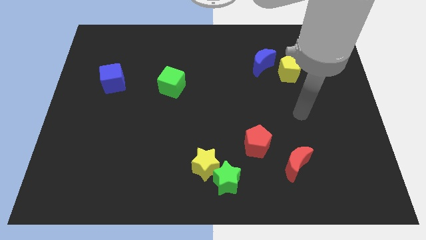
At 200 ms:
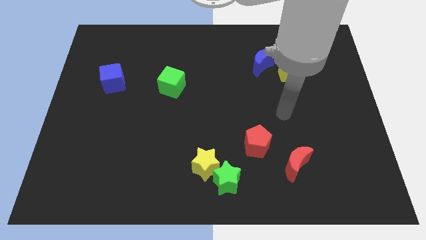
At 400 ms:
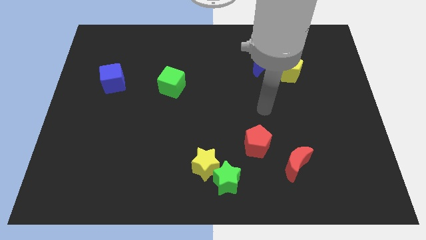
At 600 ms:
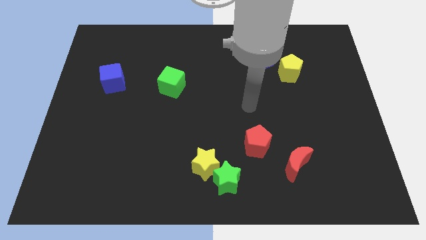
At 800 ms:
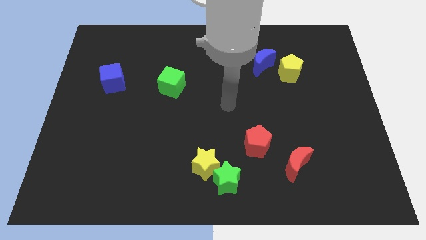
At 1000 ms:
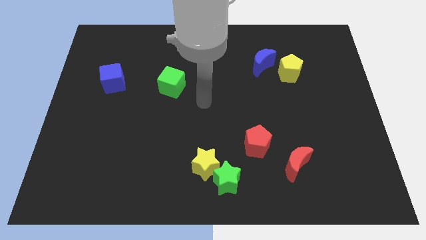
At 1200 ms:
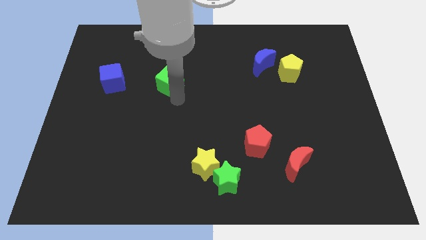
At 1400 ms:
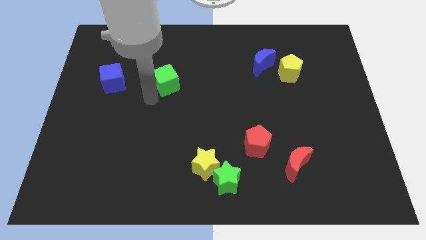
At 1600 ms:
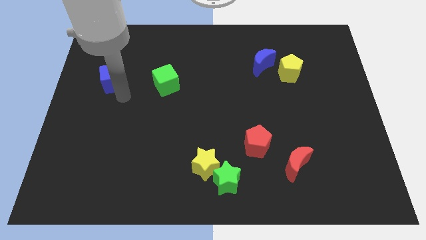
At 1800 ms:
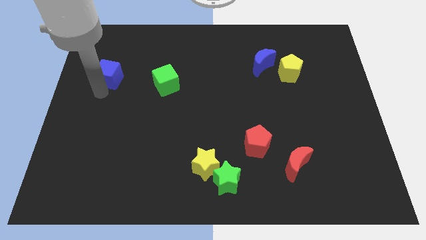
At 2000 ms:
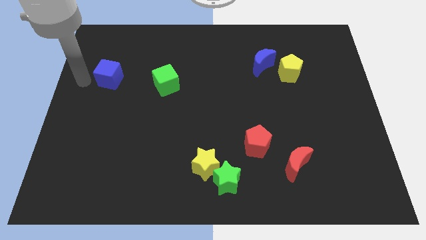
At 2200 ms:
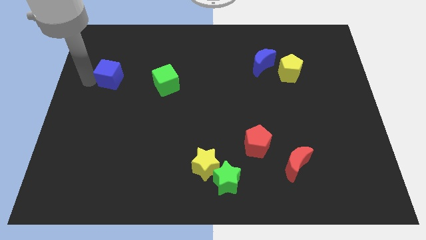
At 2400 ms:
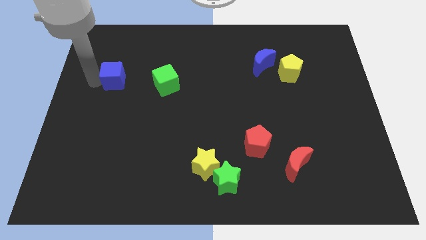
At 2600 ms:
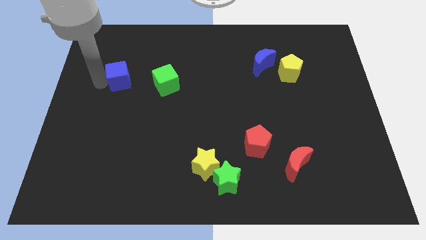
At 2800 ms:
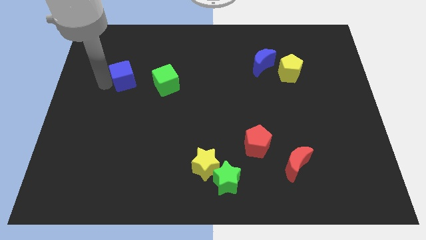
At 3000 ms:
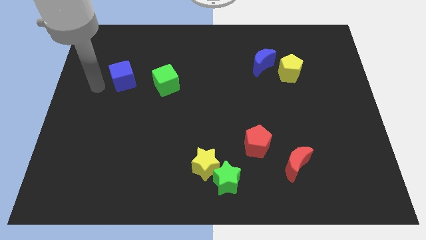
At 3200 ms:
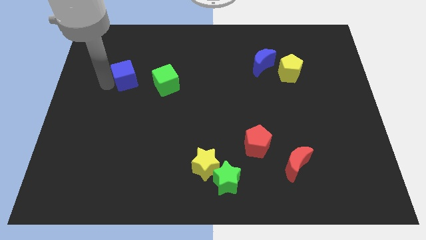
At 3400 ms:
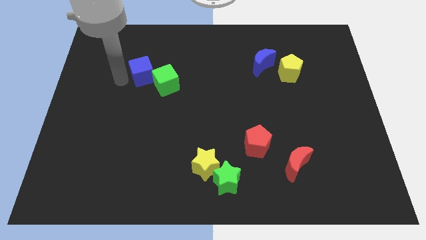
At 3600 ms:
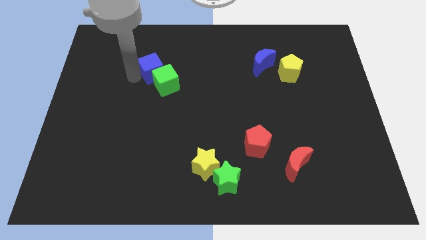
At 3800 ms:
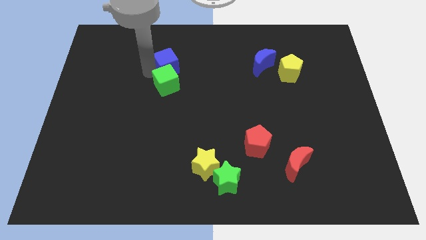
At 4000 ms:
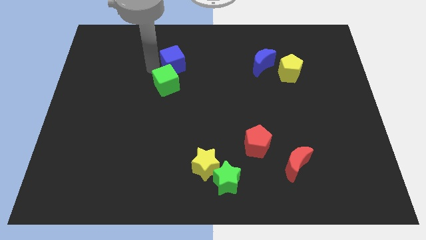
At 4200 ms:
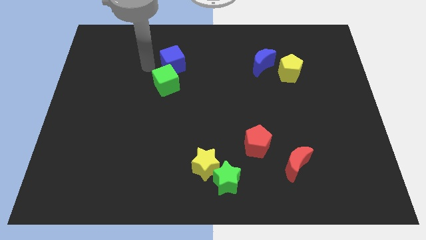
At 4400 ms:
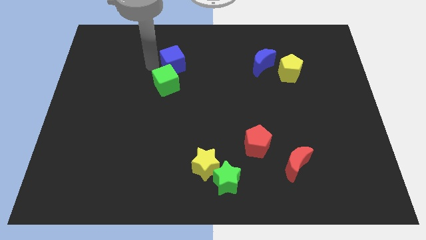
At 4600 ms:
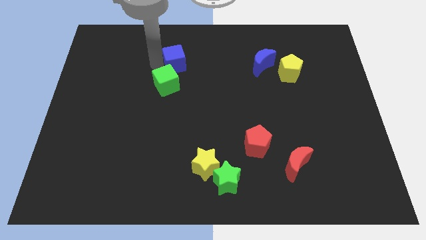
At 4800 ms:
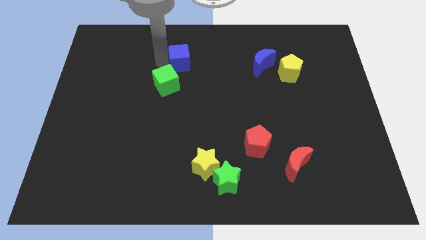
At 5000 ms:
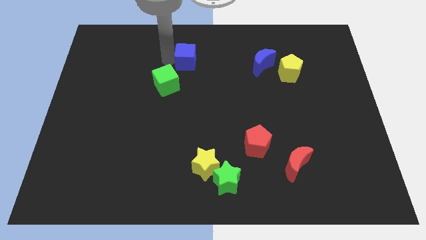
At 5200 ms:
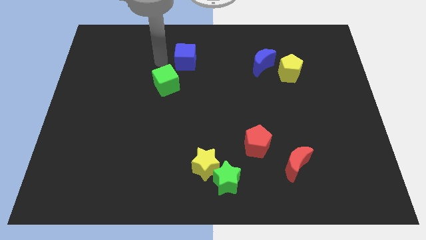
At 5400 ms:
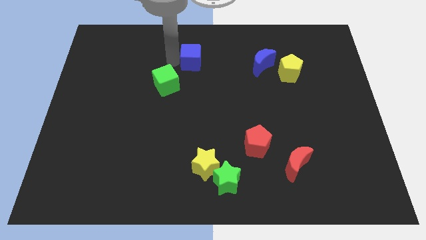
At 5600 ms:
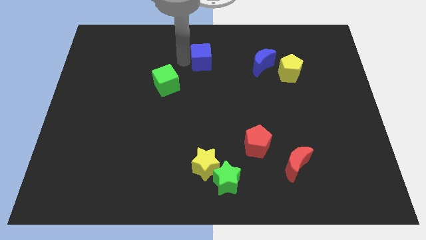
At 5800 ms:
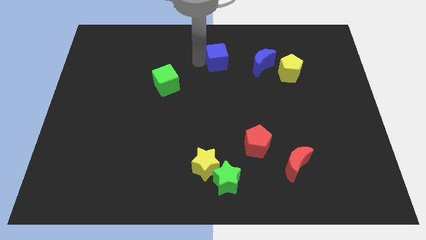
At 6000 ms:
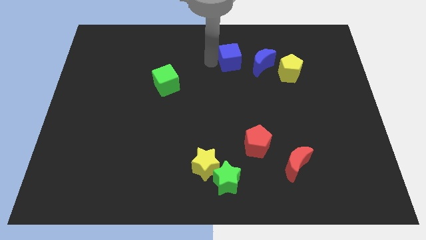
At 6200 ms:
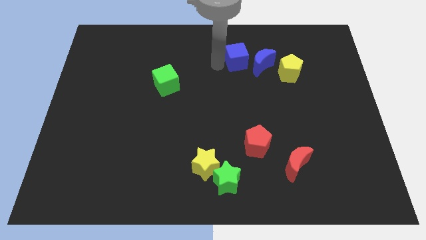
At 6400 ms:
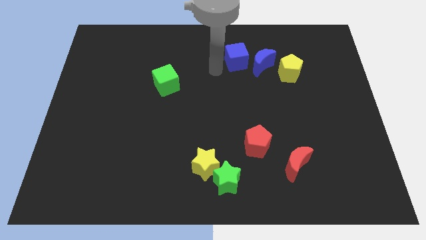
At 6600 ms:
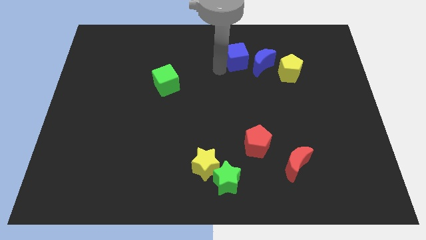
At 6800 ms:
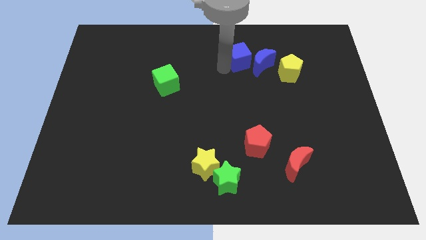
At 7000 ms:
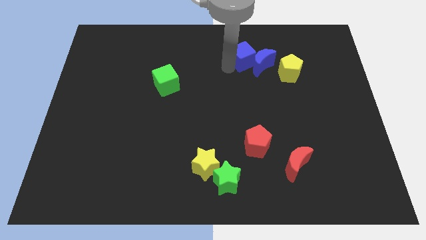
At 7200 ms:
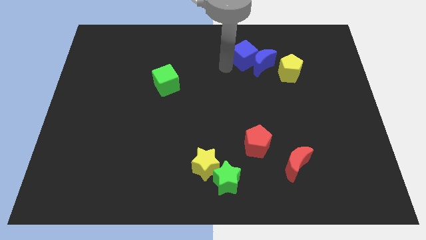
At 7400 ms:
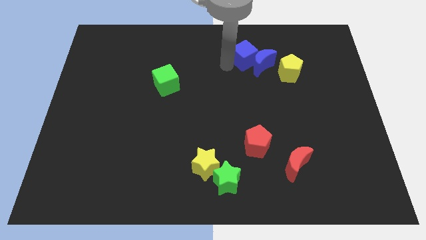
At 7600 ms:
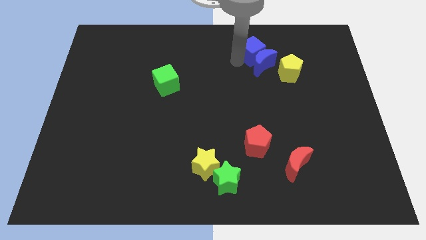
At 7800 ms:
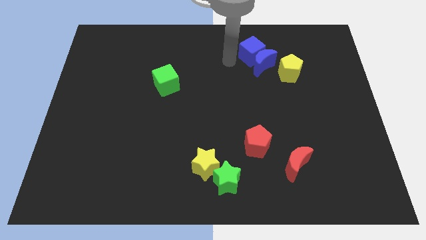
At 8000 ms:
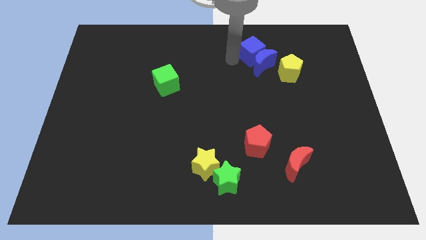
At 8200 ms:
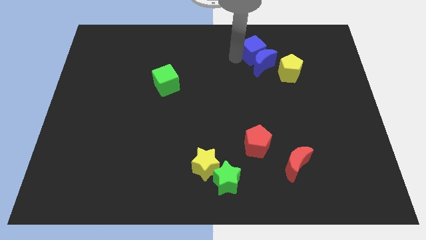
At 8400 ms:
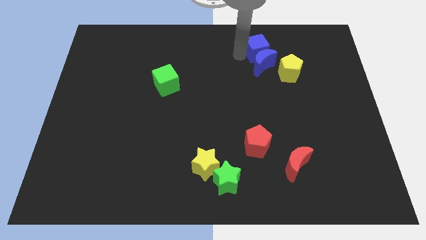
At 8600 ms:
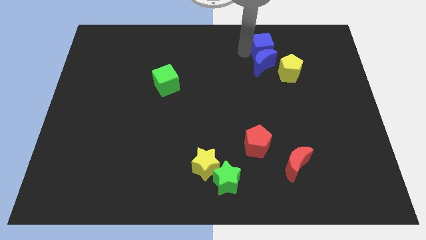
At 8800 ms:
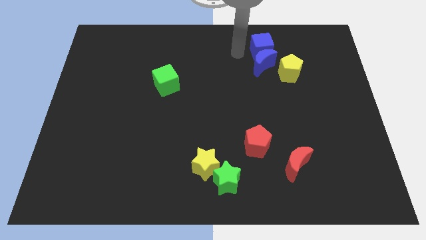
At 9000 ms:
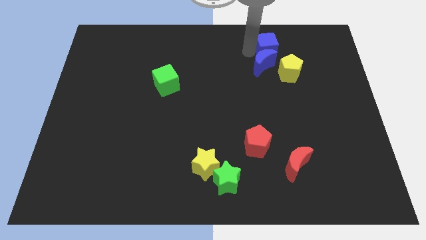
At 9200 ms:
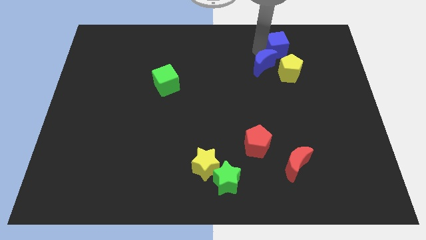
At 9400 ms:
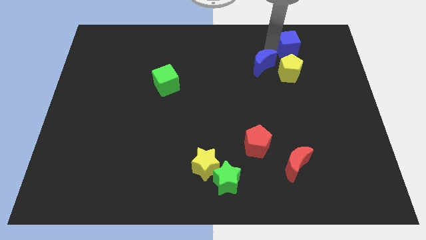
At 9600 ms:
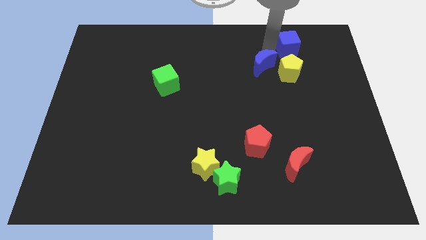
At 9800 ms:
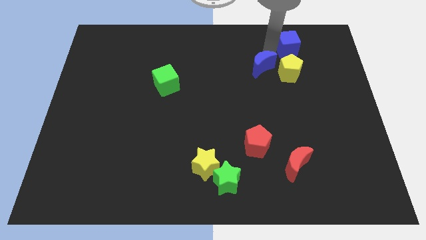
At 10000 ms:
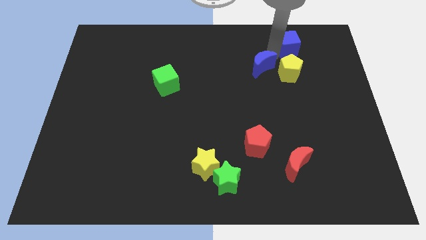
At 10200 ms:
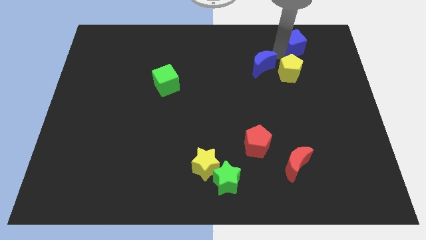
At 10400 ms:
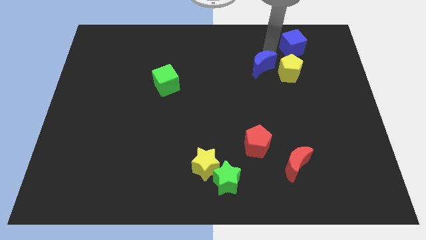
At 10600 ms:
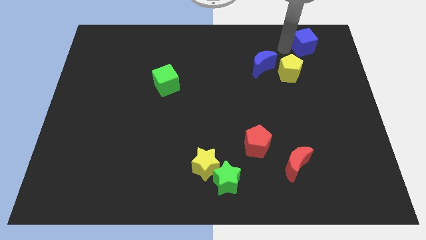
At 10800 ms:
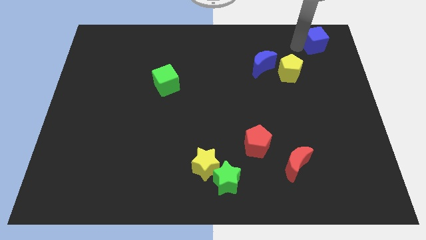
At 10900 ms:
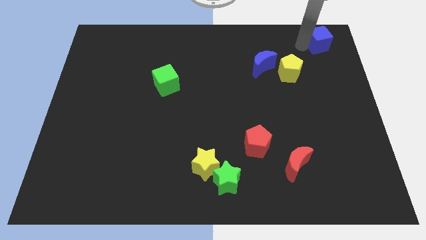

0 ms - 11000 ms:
put the blue cube to the top right corner

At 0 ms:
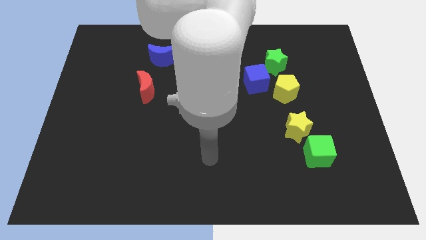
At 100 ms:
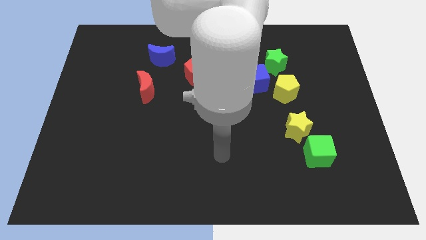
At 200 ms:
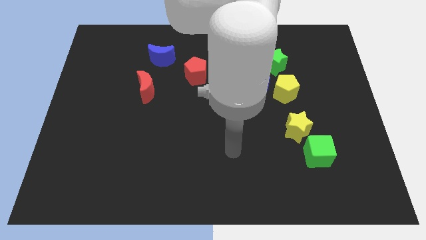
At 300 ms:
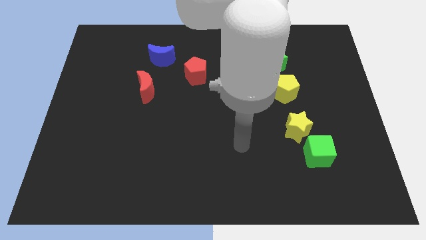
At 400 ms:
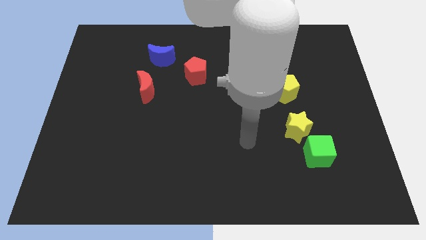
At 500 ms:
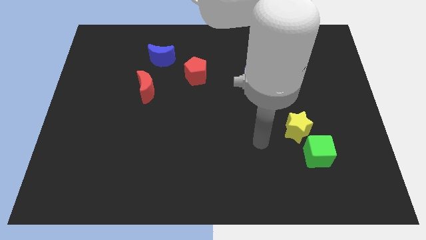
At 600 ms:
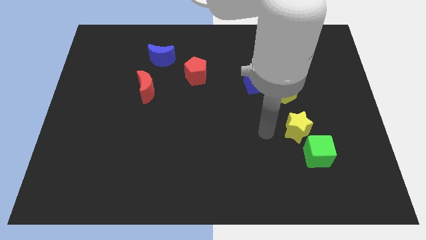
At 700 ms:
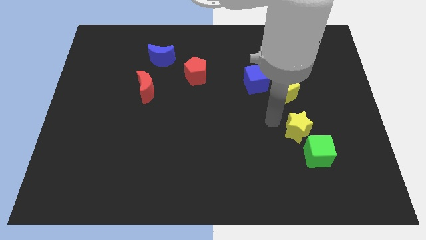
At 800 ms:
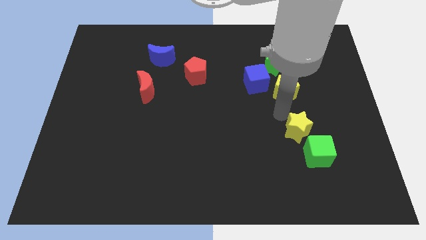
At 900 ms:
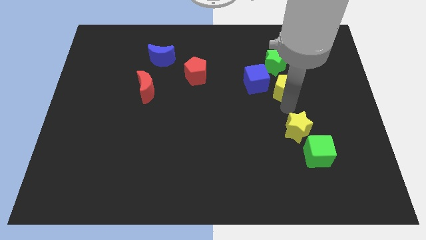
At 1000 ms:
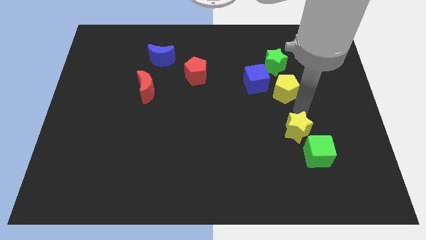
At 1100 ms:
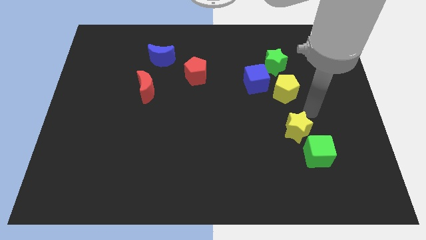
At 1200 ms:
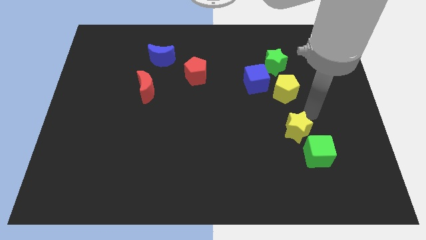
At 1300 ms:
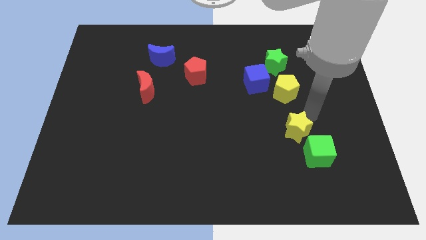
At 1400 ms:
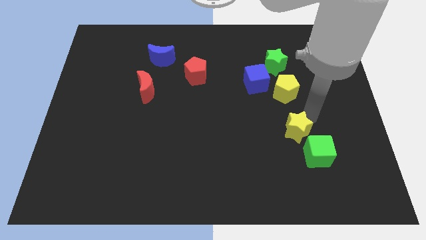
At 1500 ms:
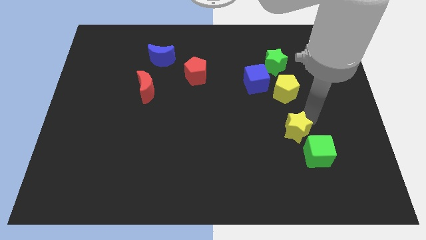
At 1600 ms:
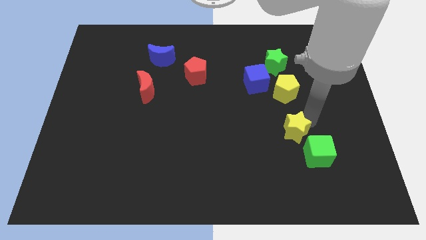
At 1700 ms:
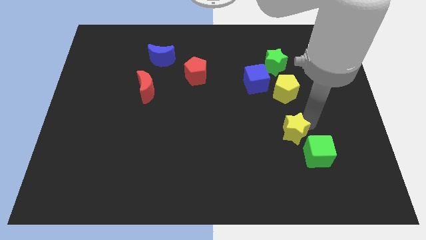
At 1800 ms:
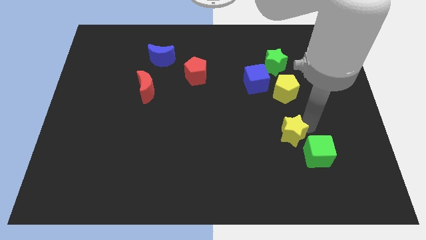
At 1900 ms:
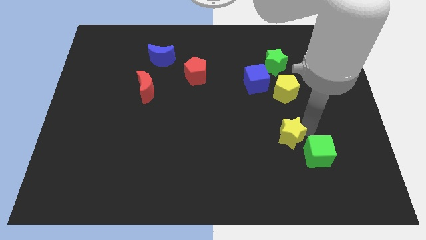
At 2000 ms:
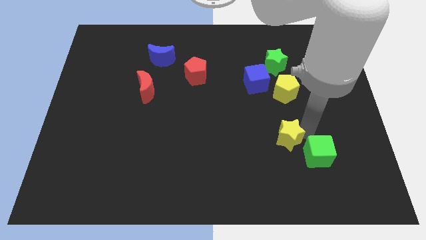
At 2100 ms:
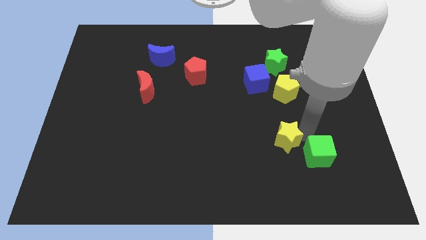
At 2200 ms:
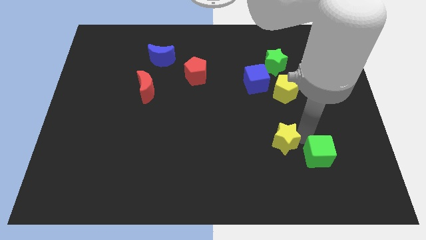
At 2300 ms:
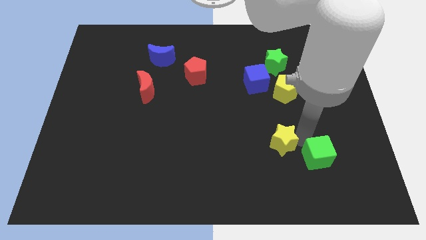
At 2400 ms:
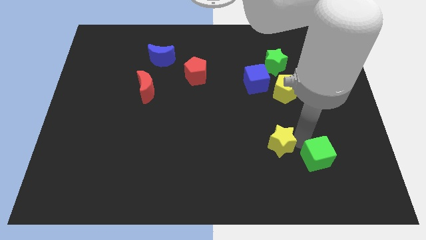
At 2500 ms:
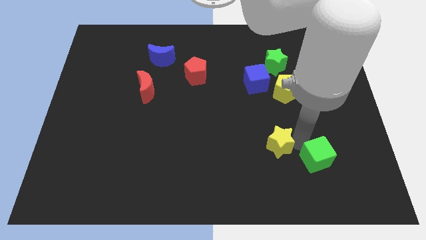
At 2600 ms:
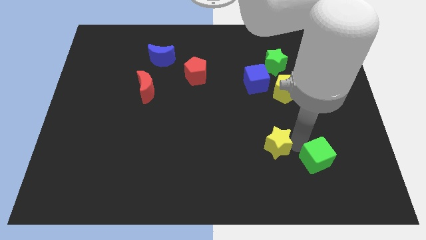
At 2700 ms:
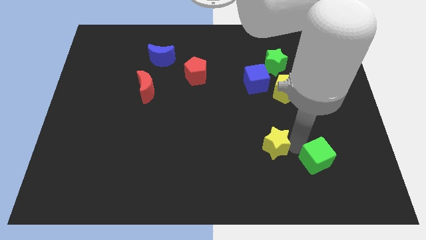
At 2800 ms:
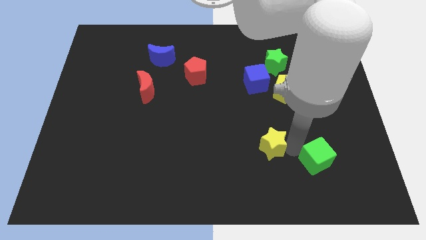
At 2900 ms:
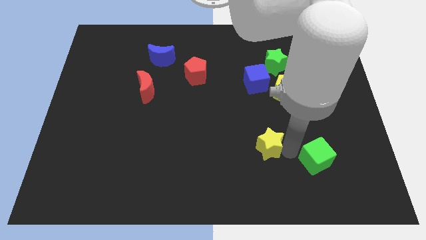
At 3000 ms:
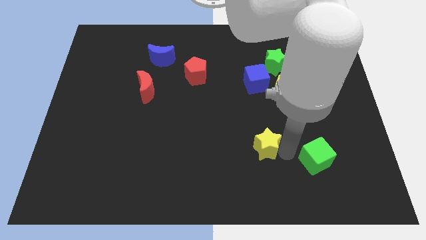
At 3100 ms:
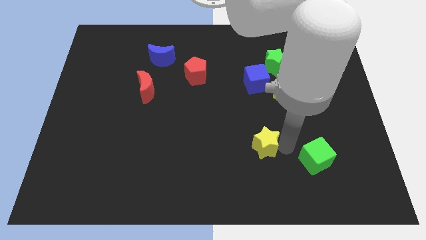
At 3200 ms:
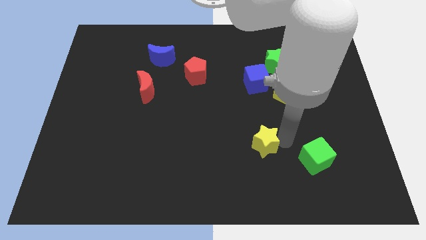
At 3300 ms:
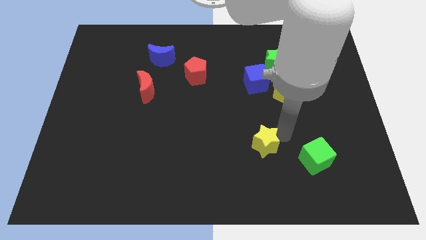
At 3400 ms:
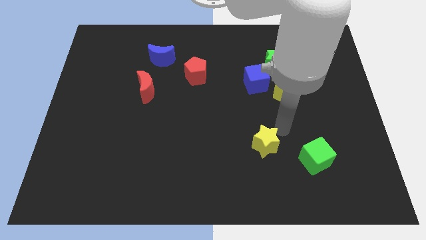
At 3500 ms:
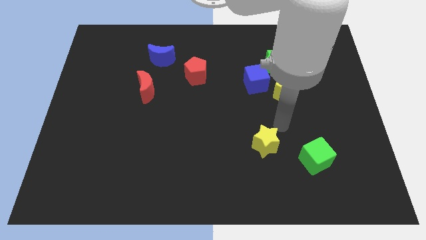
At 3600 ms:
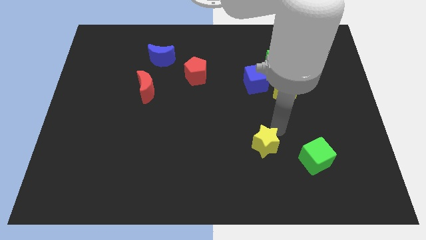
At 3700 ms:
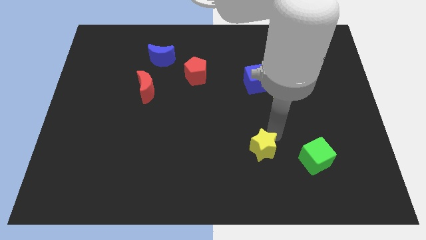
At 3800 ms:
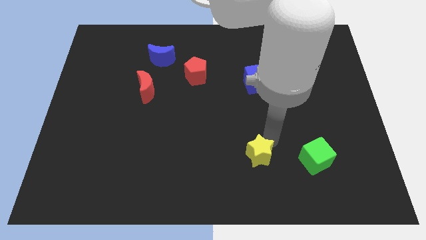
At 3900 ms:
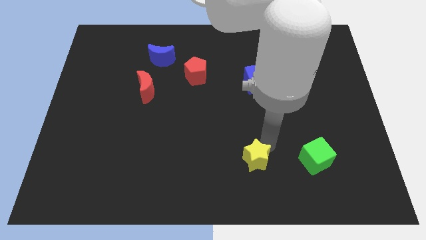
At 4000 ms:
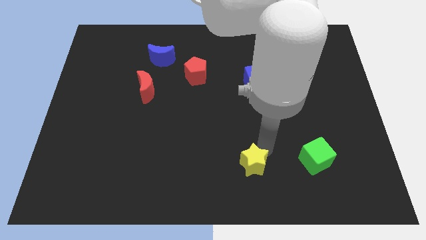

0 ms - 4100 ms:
push the yellow star to the bottom
